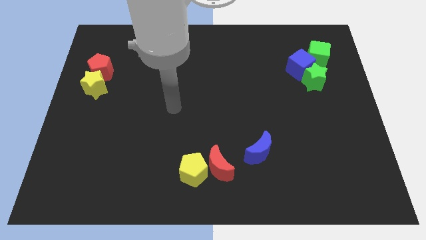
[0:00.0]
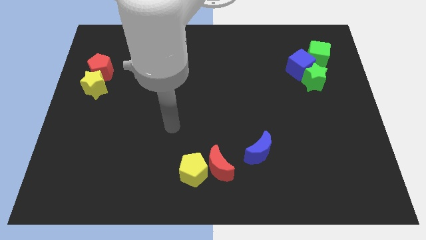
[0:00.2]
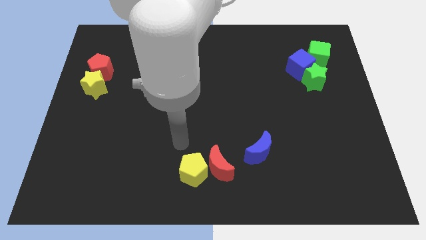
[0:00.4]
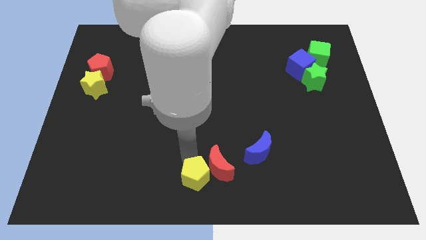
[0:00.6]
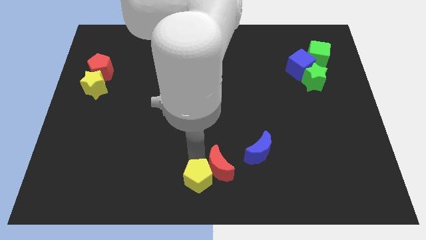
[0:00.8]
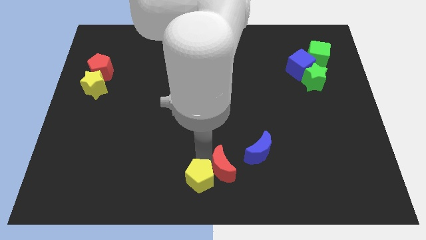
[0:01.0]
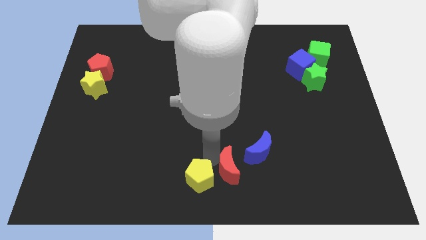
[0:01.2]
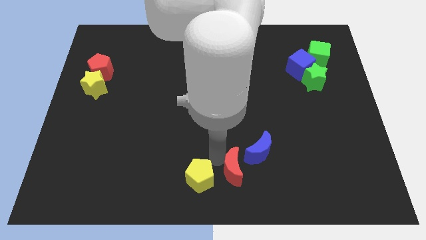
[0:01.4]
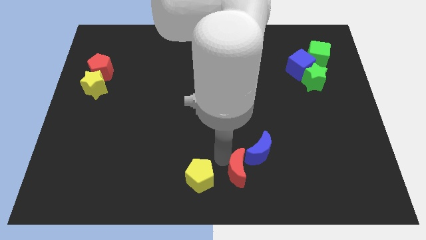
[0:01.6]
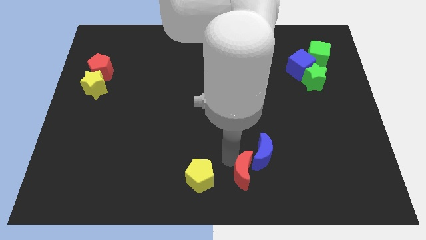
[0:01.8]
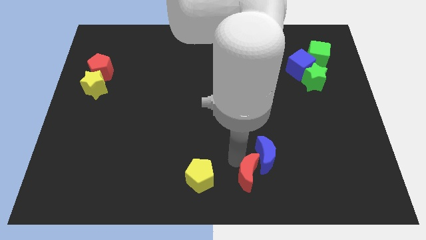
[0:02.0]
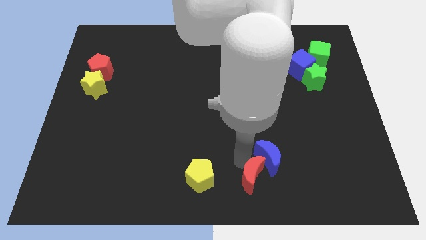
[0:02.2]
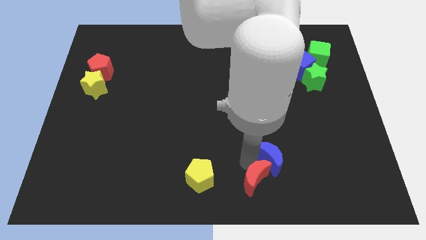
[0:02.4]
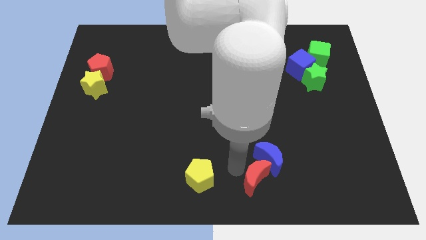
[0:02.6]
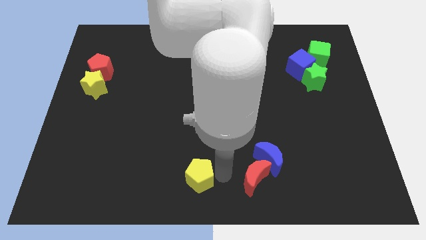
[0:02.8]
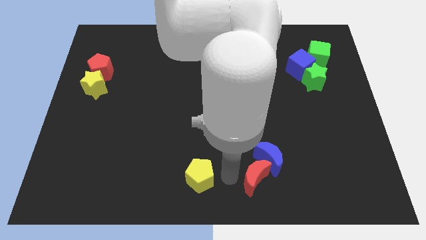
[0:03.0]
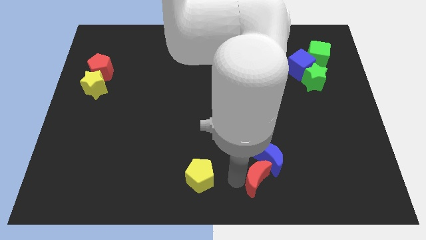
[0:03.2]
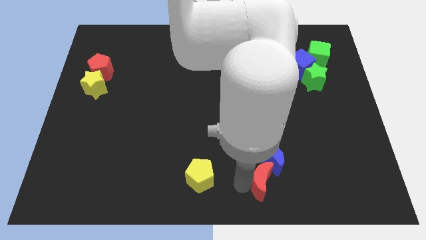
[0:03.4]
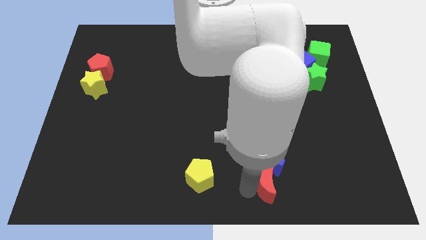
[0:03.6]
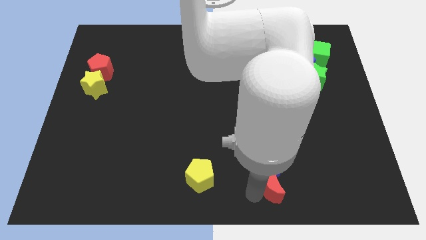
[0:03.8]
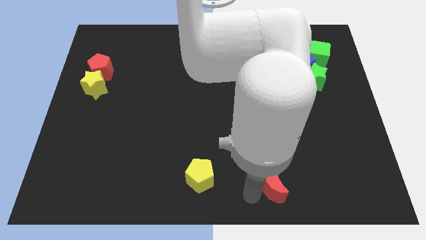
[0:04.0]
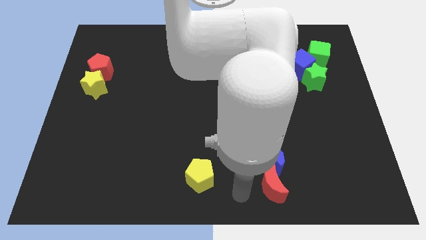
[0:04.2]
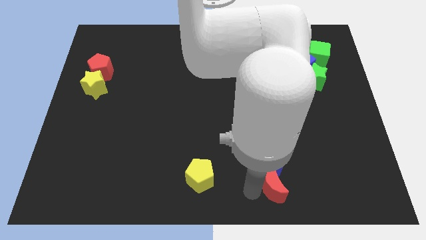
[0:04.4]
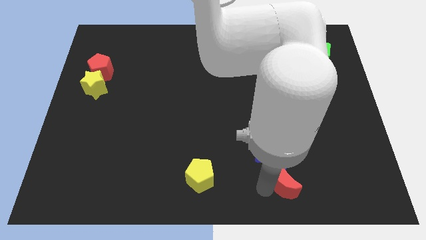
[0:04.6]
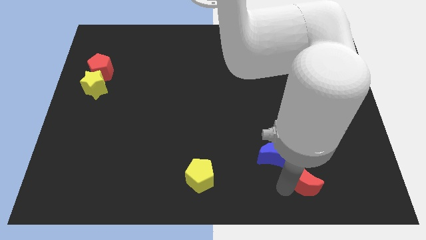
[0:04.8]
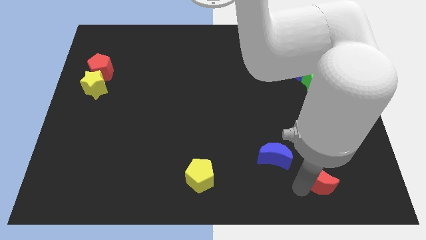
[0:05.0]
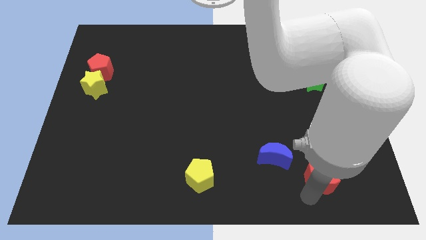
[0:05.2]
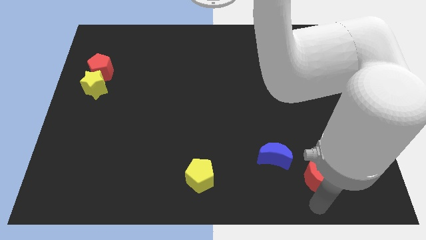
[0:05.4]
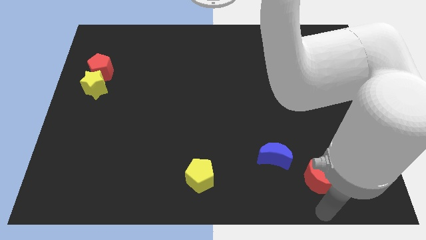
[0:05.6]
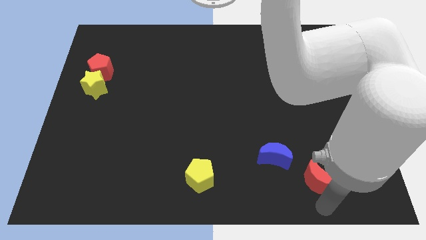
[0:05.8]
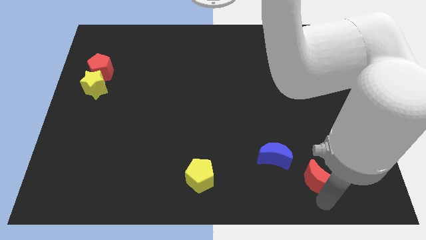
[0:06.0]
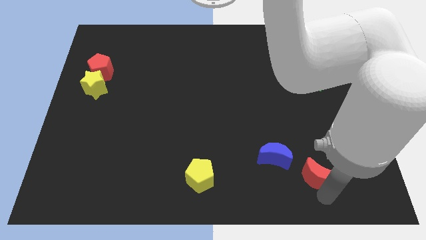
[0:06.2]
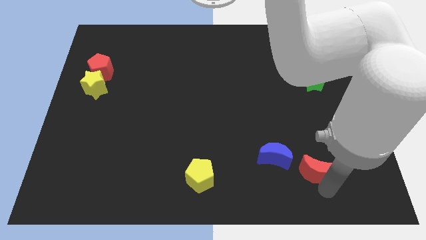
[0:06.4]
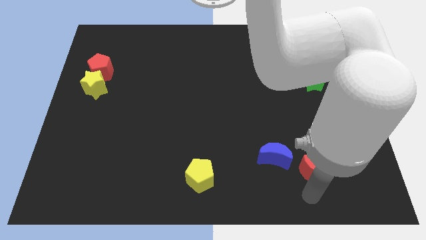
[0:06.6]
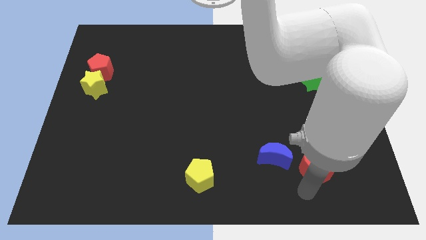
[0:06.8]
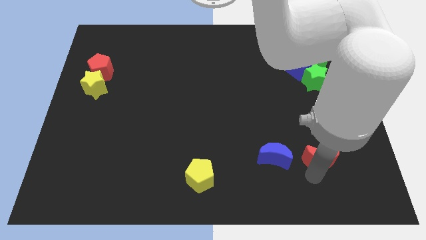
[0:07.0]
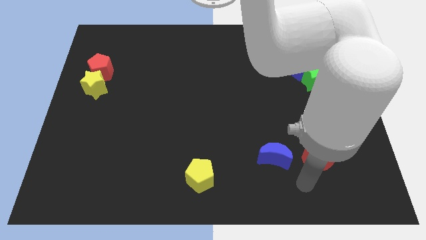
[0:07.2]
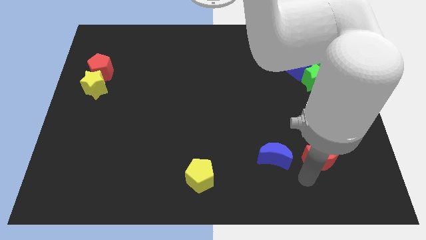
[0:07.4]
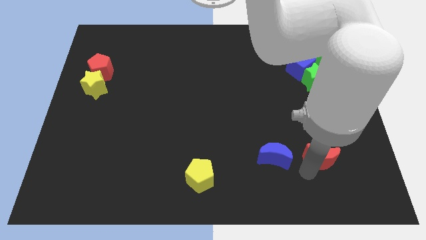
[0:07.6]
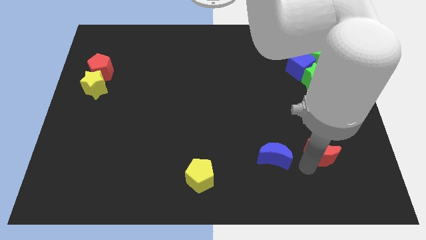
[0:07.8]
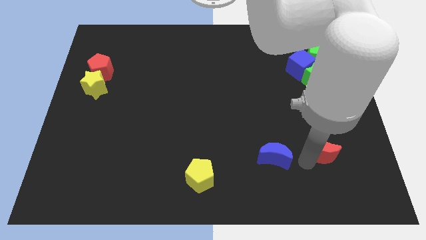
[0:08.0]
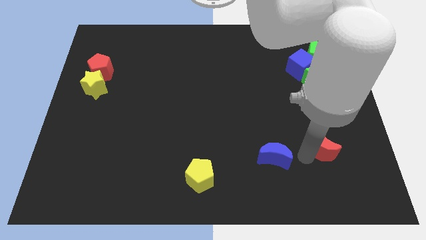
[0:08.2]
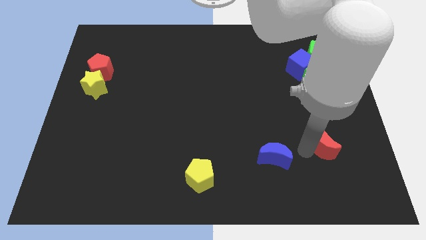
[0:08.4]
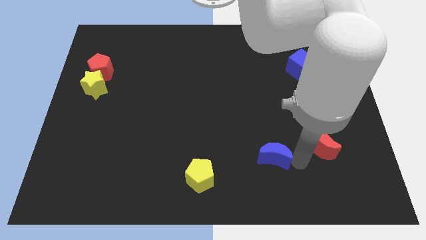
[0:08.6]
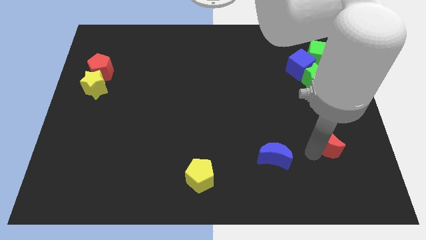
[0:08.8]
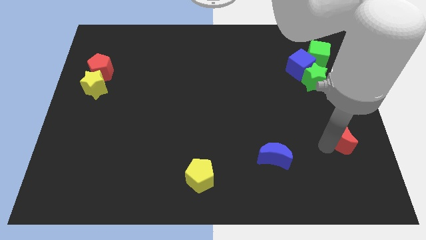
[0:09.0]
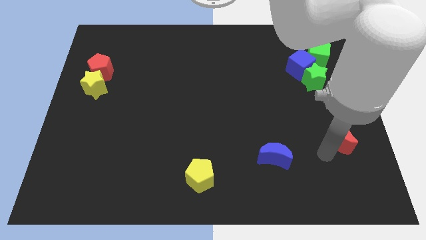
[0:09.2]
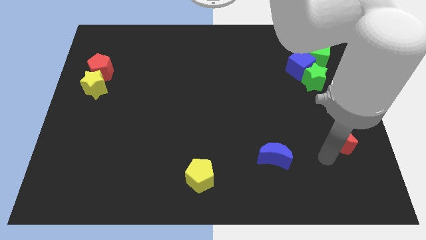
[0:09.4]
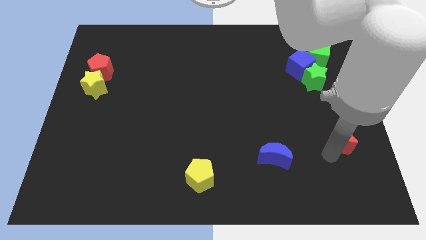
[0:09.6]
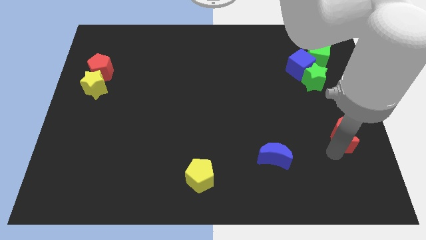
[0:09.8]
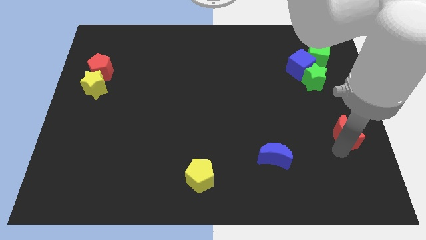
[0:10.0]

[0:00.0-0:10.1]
put the red moon to the right side

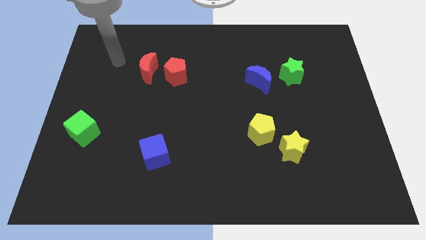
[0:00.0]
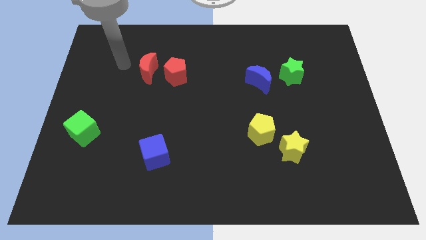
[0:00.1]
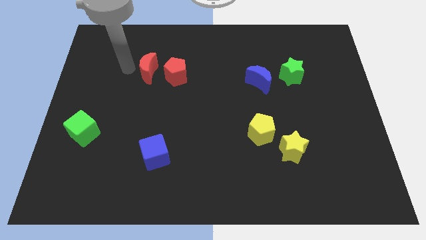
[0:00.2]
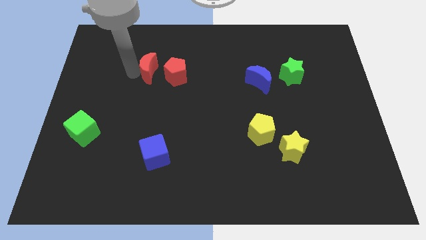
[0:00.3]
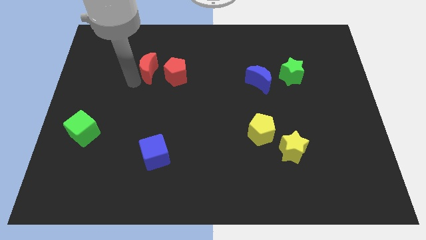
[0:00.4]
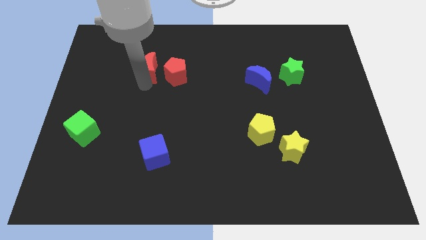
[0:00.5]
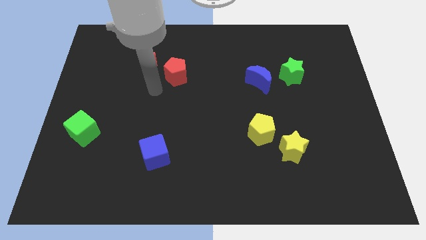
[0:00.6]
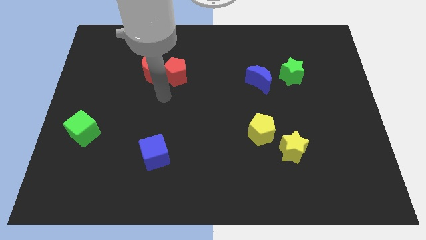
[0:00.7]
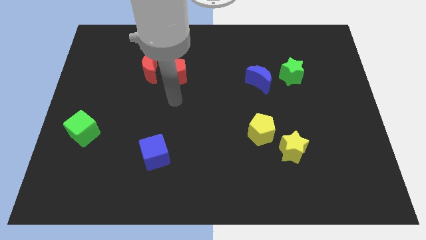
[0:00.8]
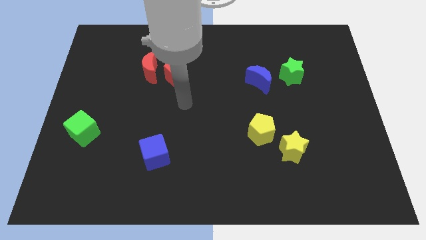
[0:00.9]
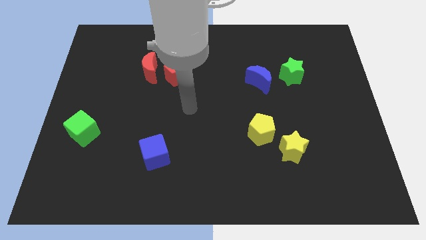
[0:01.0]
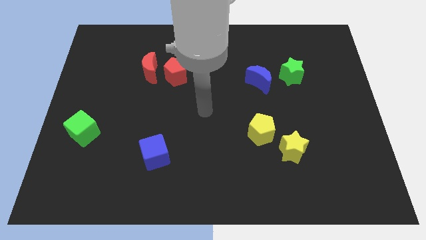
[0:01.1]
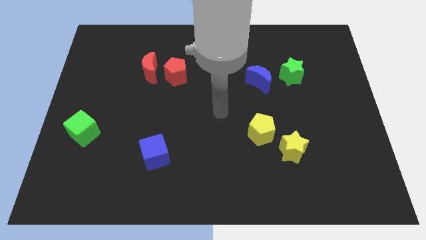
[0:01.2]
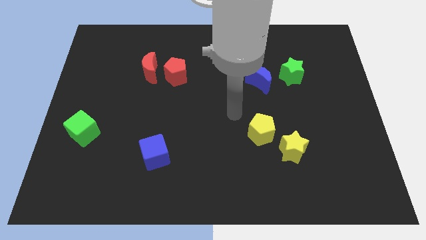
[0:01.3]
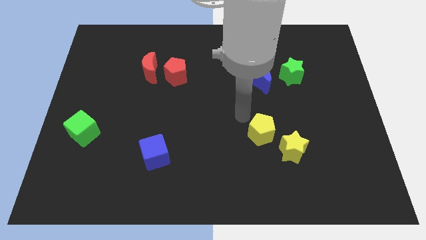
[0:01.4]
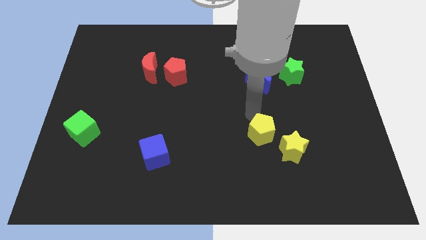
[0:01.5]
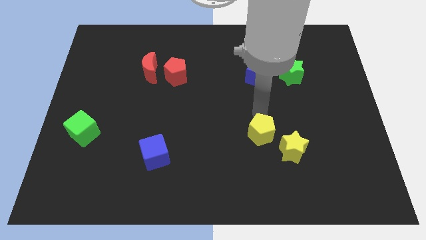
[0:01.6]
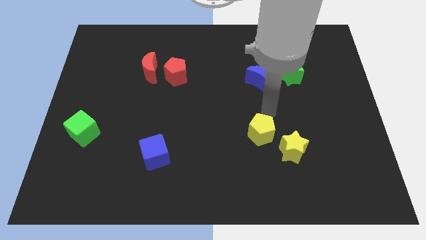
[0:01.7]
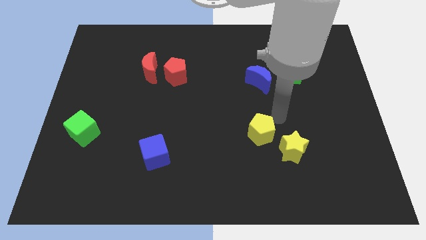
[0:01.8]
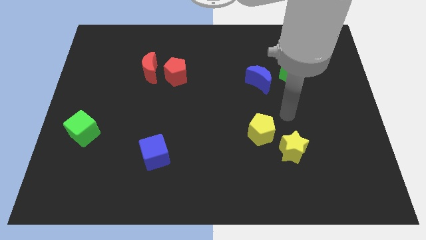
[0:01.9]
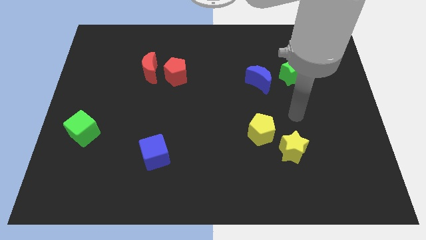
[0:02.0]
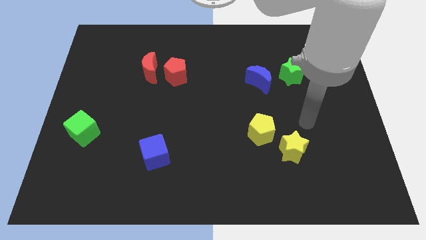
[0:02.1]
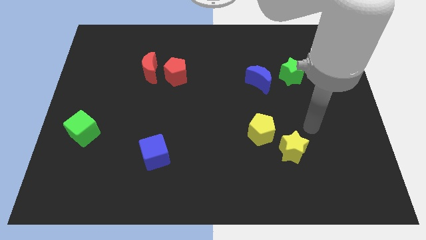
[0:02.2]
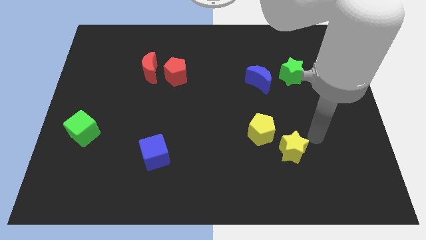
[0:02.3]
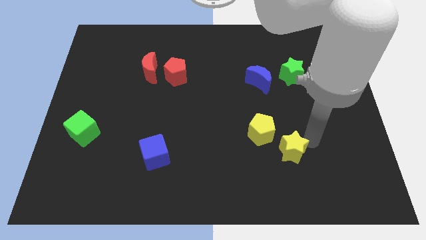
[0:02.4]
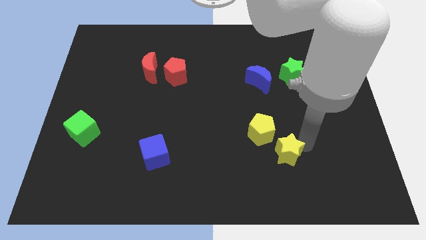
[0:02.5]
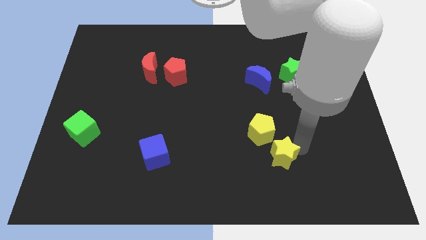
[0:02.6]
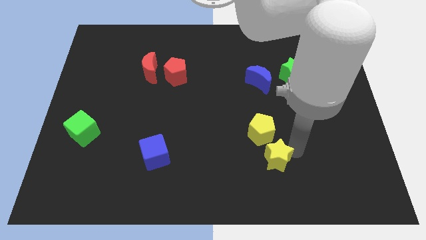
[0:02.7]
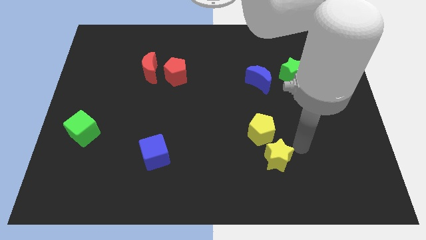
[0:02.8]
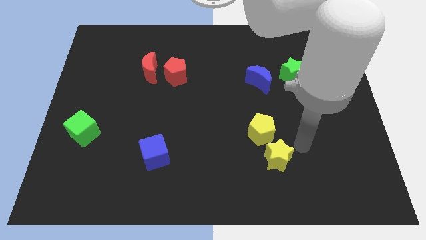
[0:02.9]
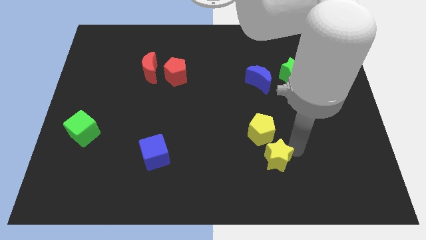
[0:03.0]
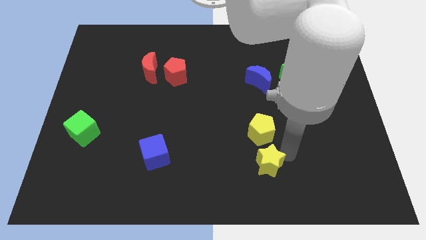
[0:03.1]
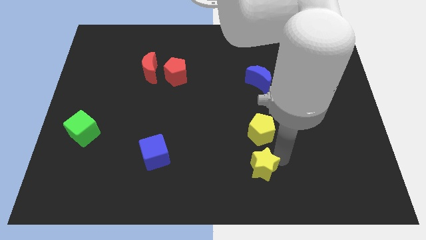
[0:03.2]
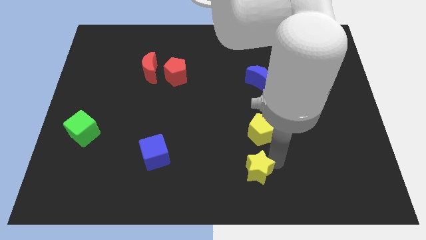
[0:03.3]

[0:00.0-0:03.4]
put the yellow star to the bottom
